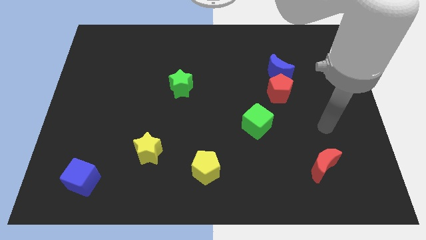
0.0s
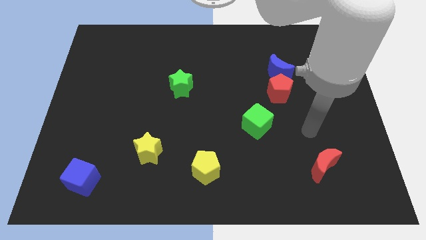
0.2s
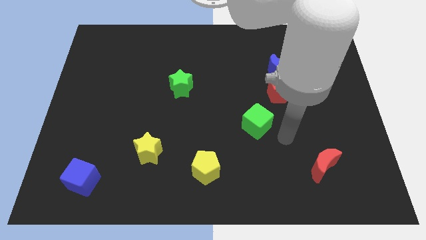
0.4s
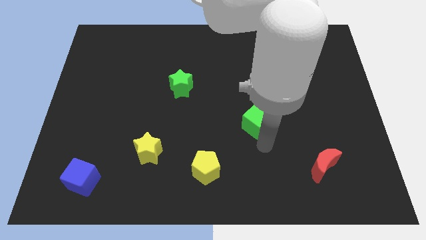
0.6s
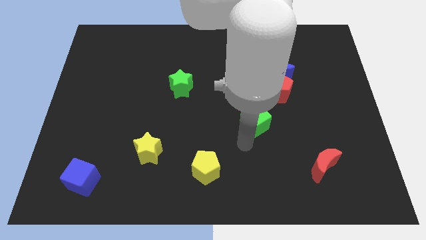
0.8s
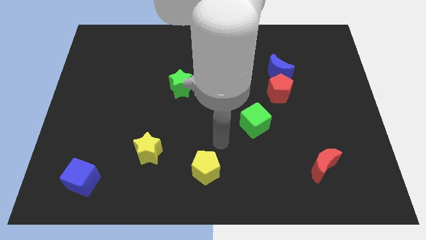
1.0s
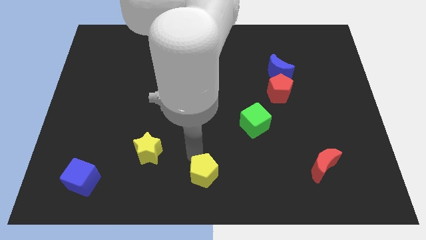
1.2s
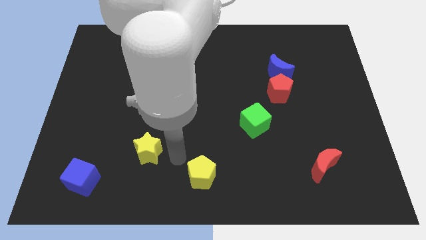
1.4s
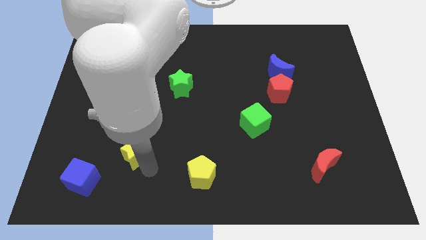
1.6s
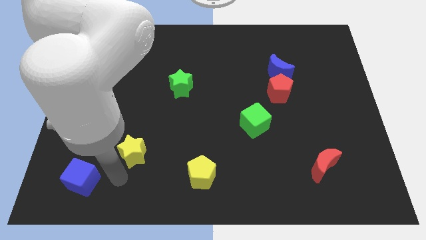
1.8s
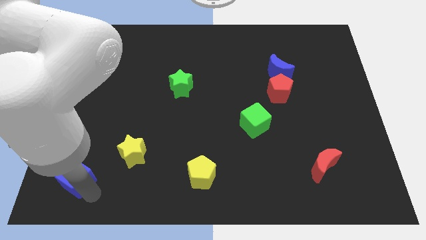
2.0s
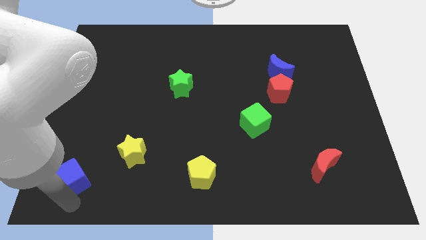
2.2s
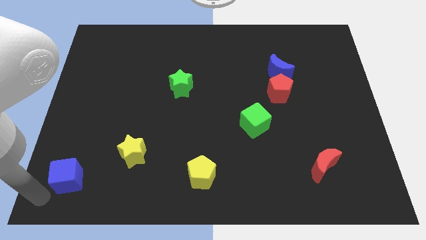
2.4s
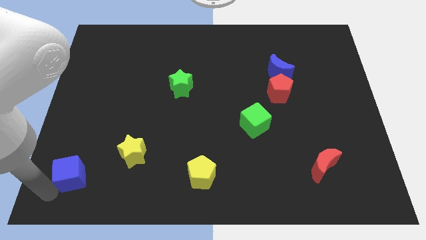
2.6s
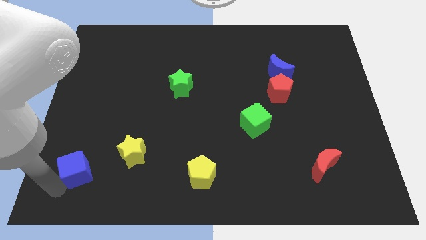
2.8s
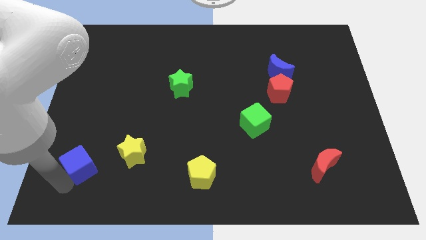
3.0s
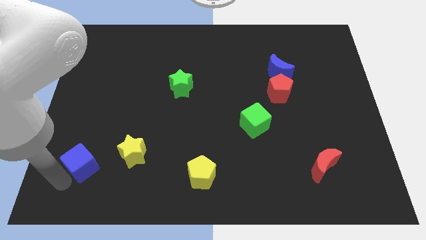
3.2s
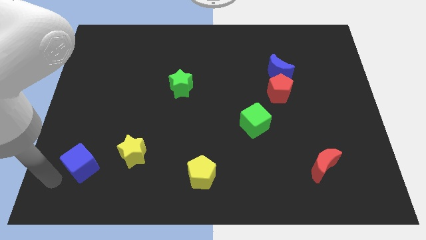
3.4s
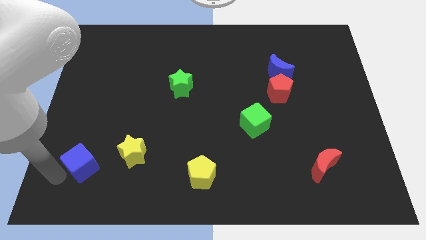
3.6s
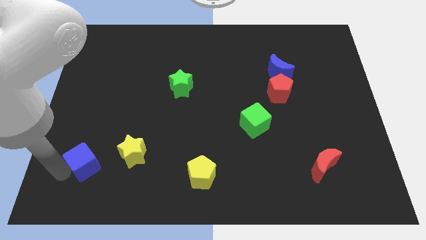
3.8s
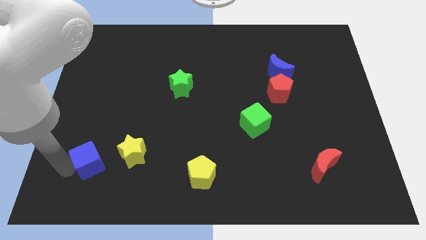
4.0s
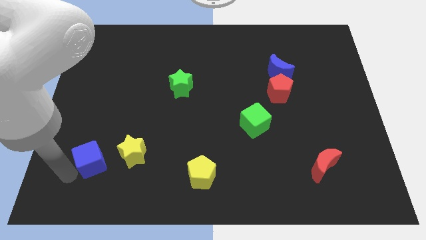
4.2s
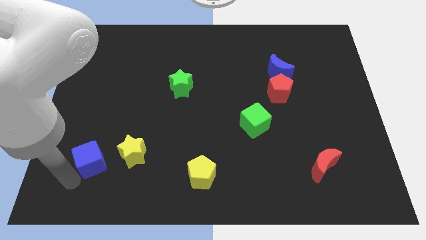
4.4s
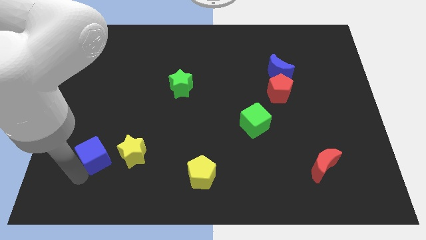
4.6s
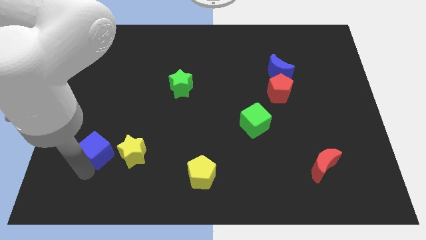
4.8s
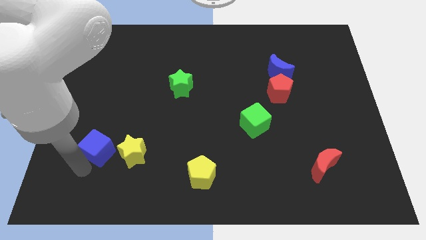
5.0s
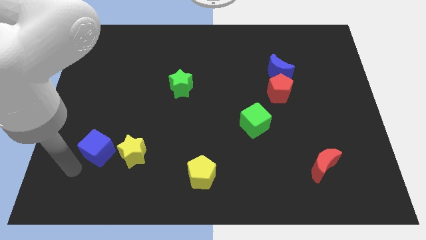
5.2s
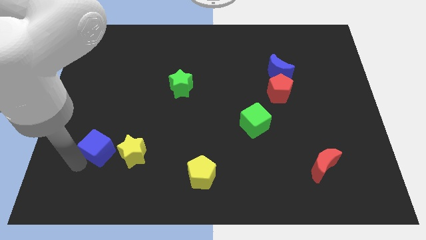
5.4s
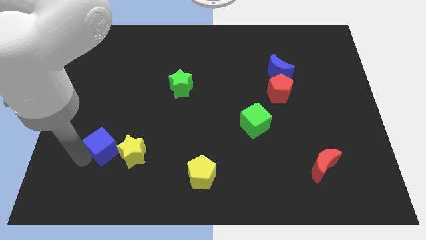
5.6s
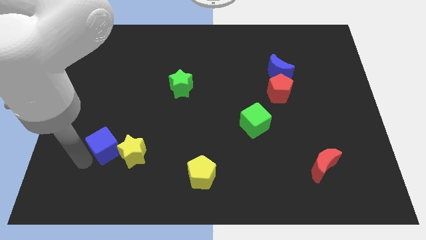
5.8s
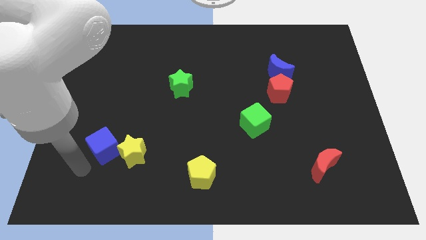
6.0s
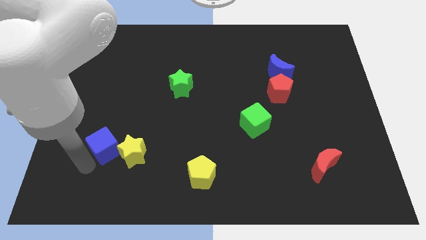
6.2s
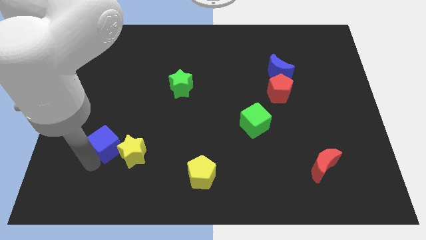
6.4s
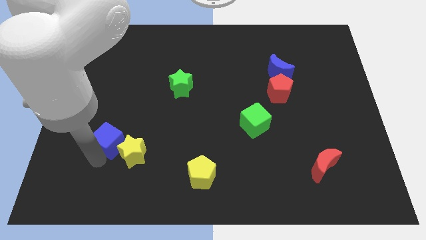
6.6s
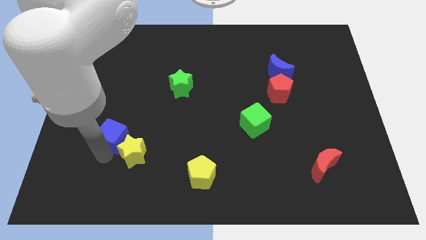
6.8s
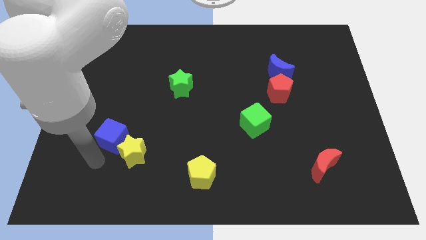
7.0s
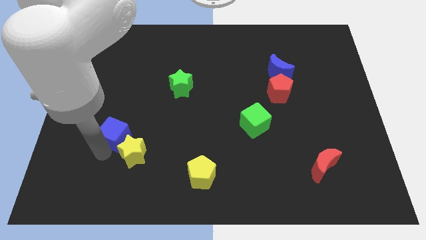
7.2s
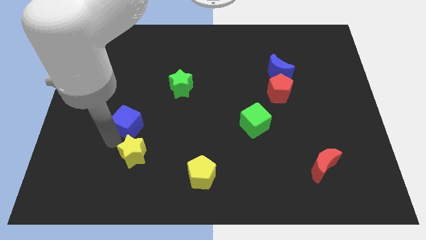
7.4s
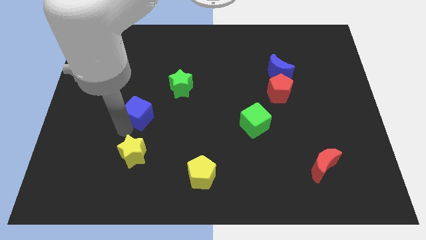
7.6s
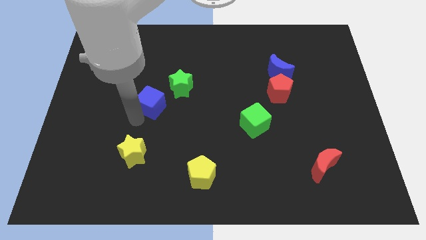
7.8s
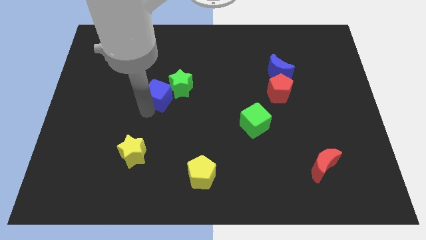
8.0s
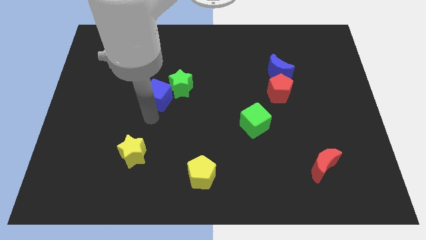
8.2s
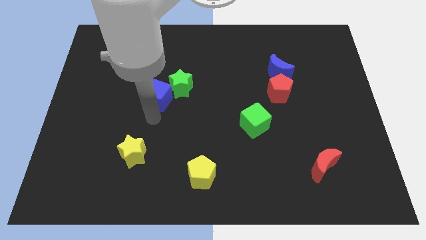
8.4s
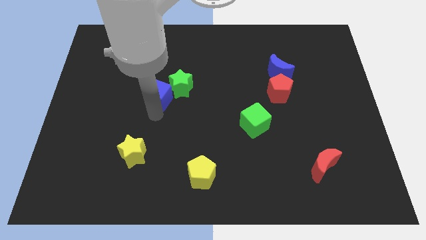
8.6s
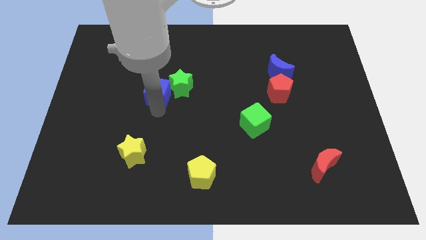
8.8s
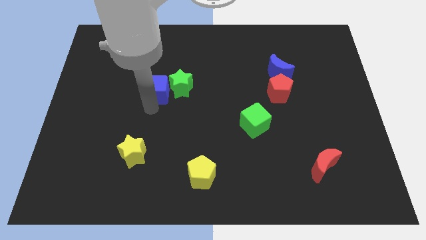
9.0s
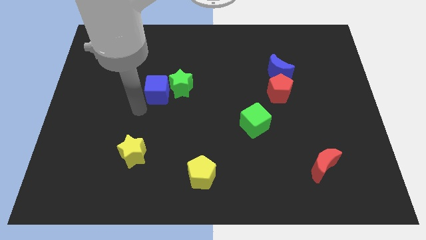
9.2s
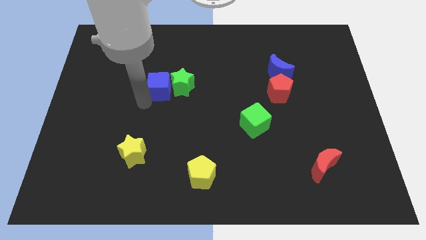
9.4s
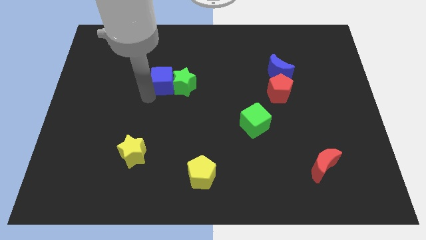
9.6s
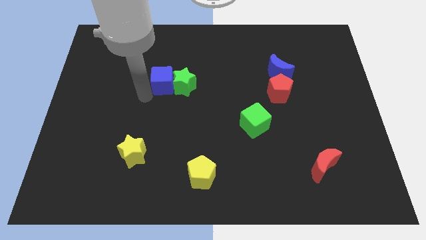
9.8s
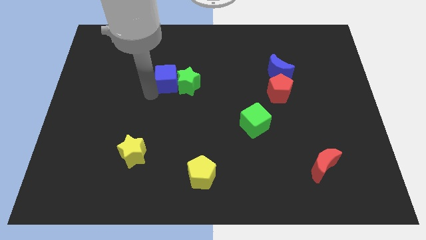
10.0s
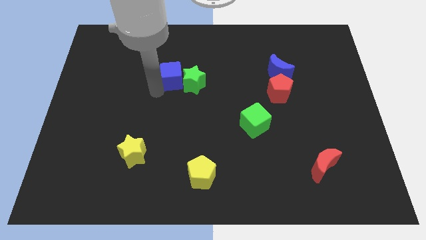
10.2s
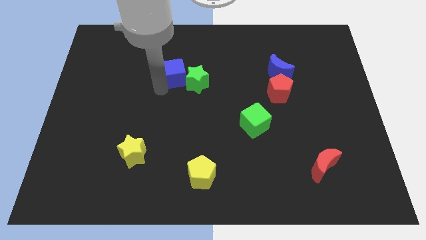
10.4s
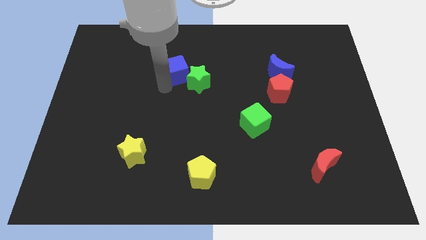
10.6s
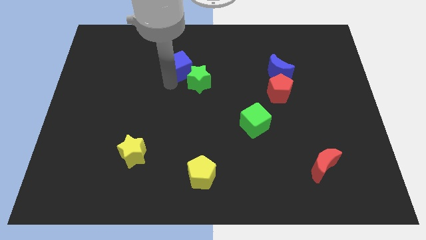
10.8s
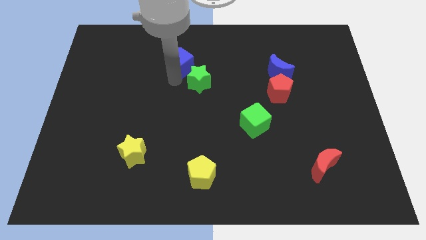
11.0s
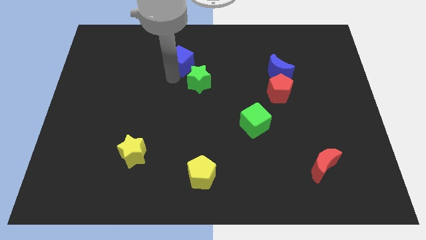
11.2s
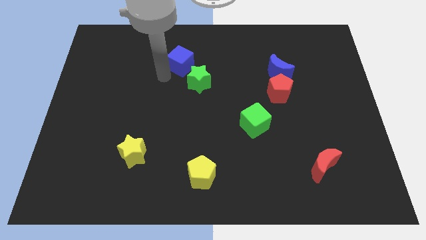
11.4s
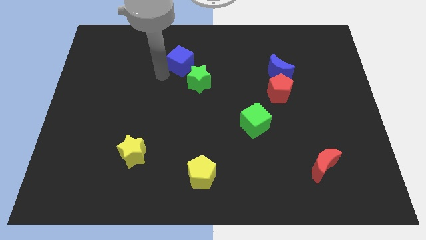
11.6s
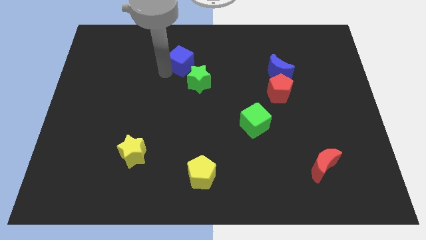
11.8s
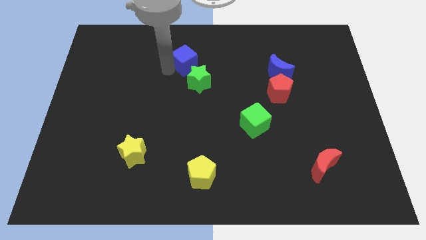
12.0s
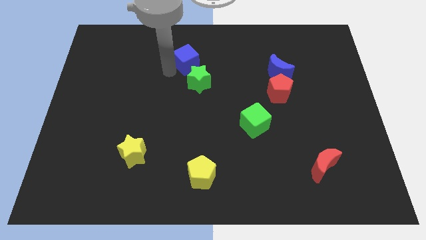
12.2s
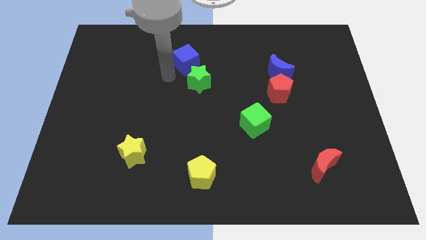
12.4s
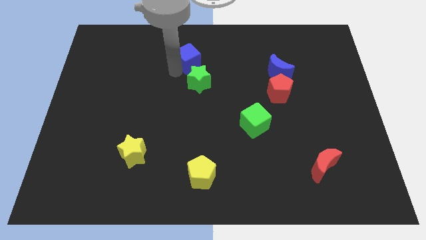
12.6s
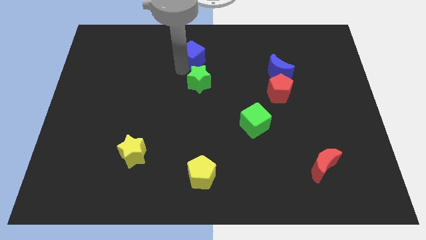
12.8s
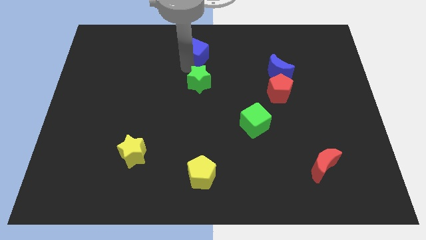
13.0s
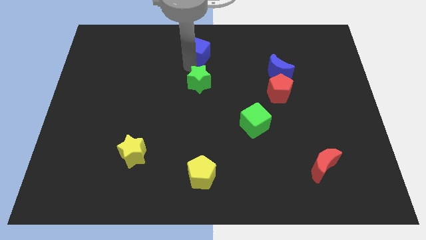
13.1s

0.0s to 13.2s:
slide the blue cube to the top

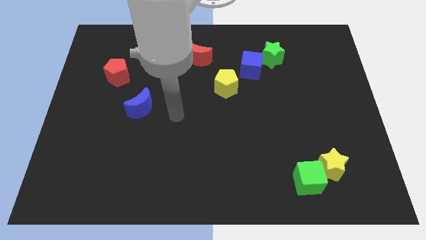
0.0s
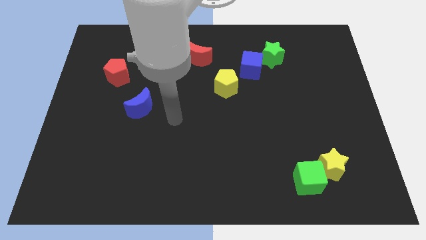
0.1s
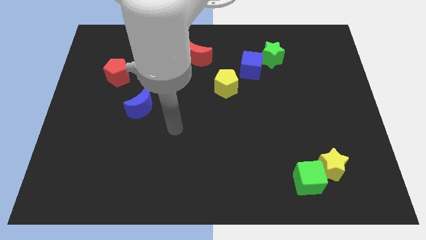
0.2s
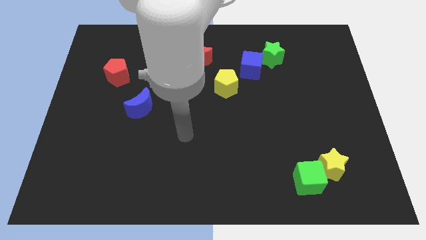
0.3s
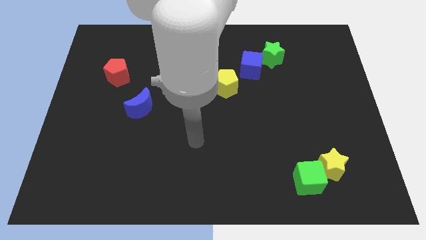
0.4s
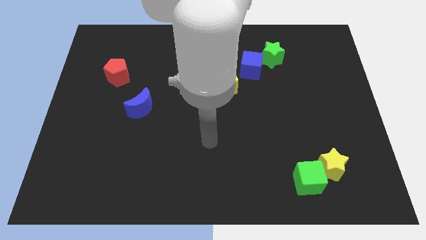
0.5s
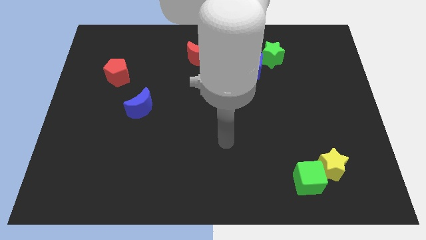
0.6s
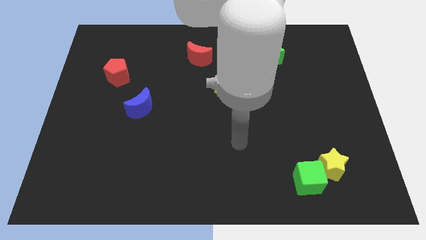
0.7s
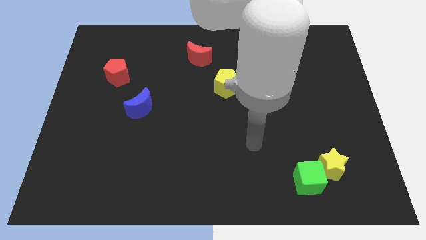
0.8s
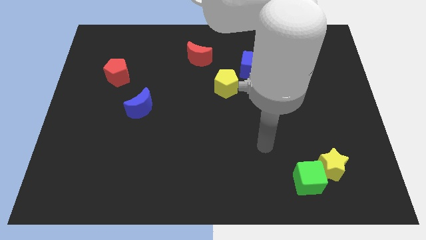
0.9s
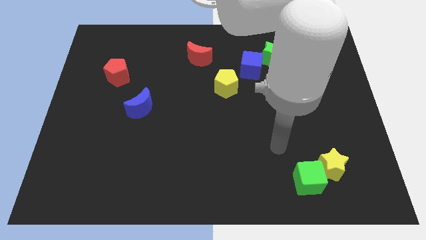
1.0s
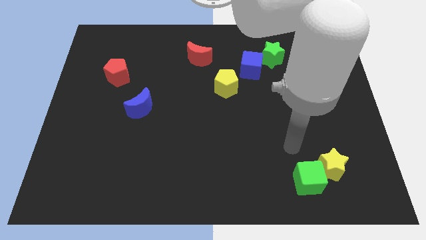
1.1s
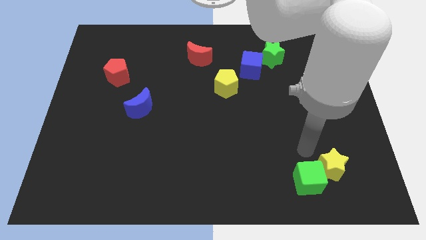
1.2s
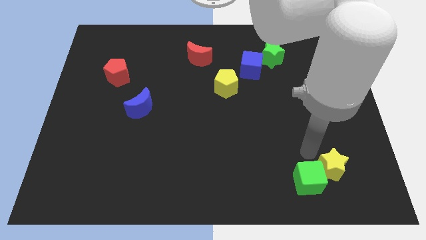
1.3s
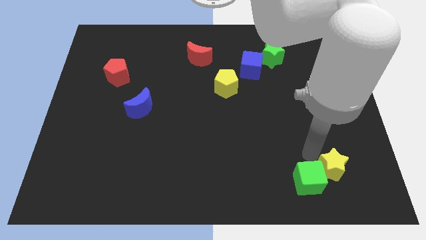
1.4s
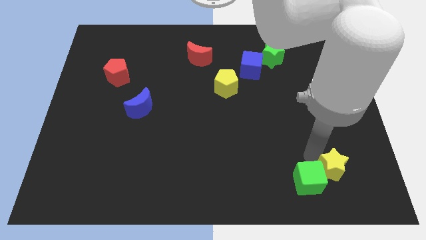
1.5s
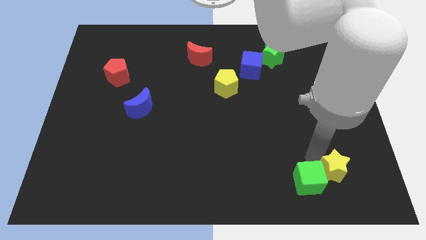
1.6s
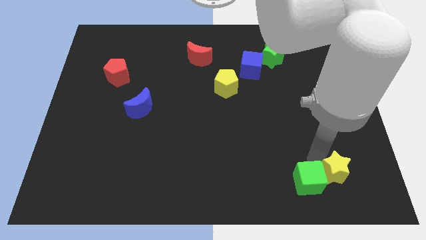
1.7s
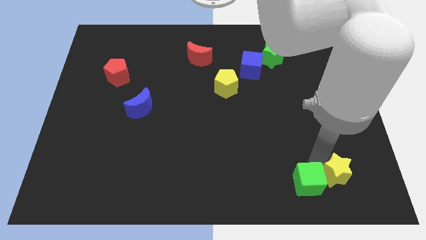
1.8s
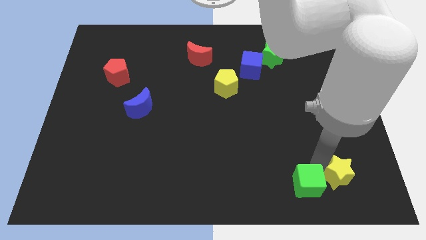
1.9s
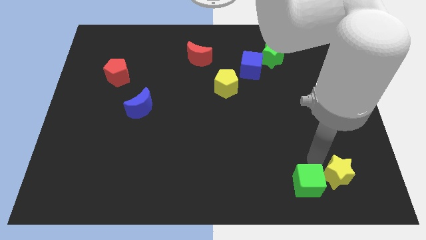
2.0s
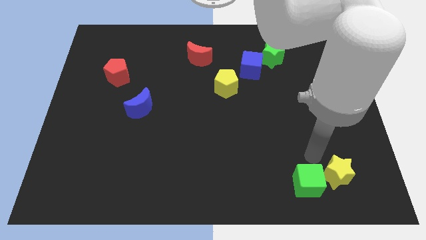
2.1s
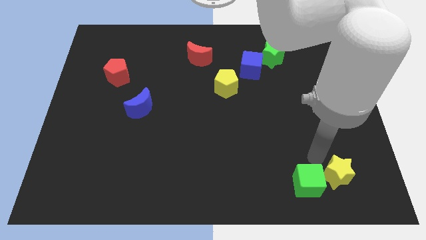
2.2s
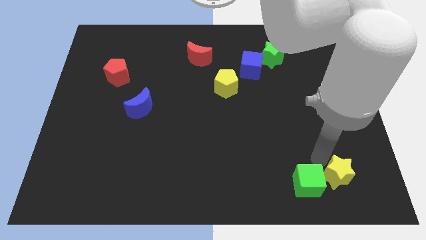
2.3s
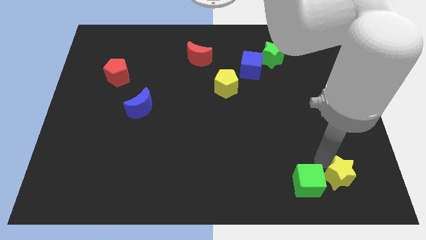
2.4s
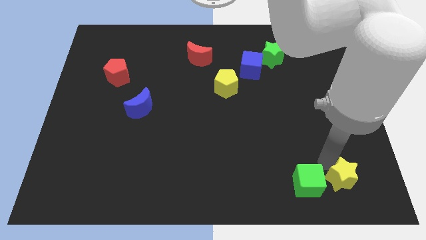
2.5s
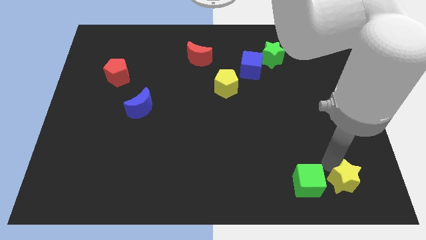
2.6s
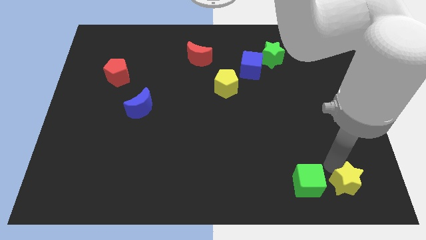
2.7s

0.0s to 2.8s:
put the yellow star to the lower right corner
